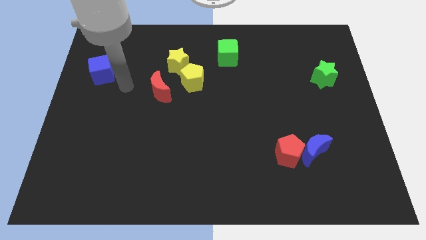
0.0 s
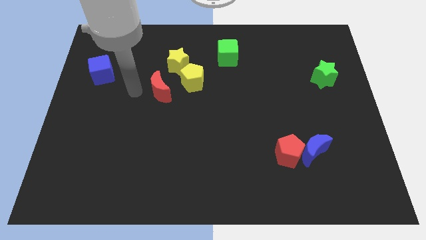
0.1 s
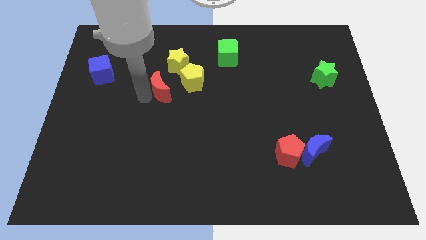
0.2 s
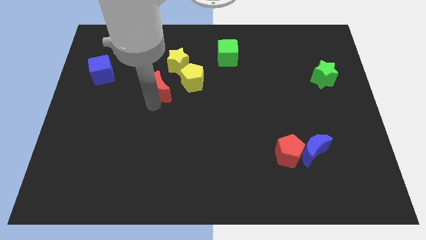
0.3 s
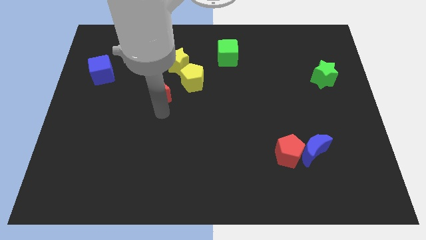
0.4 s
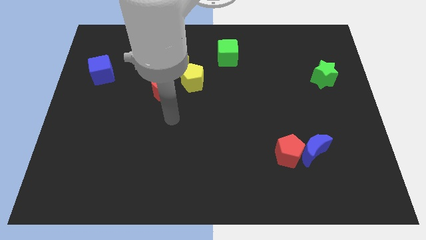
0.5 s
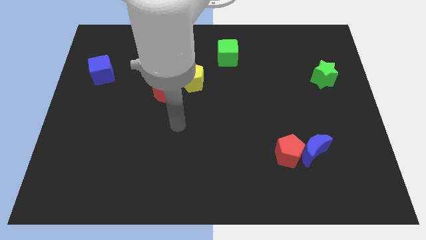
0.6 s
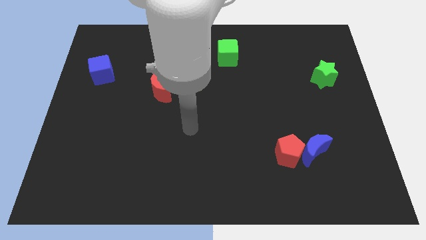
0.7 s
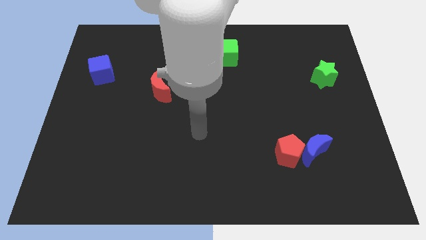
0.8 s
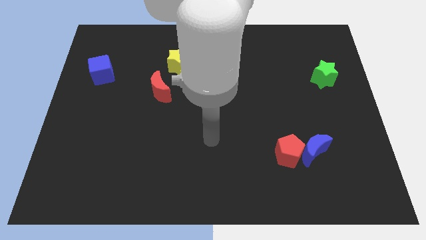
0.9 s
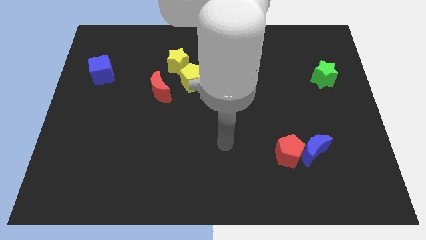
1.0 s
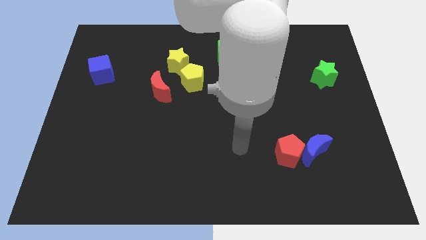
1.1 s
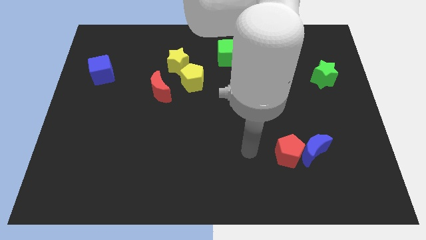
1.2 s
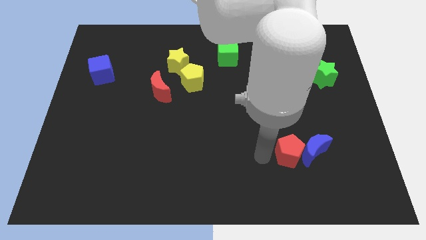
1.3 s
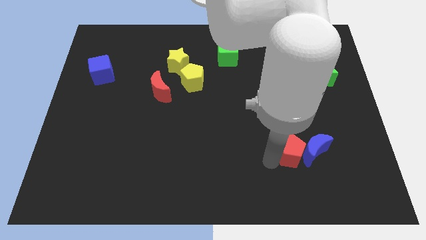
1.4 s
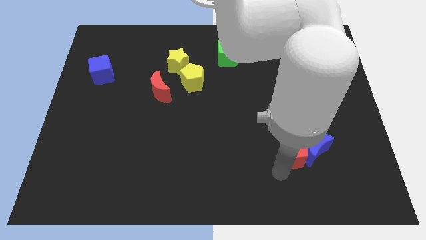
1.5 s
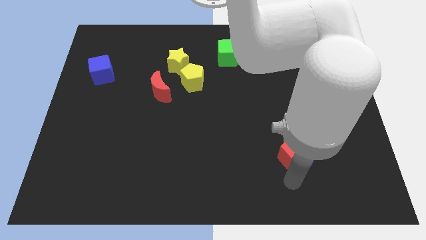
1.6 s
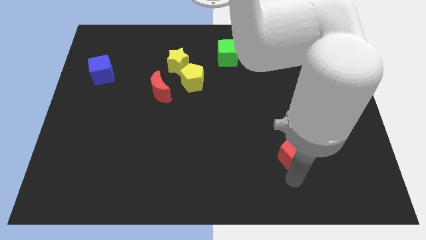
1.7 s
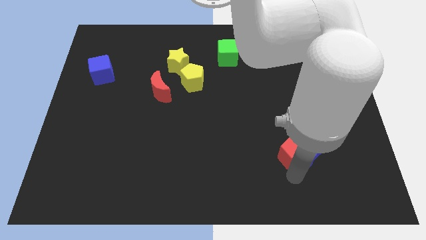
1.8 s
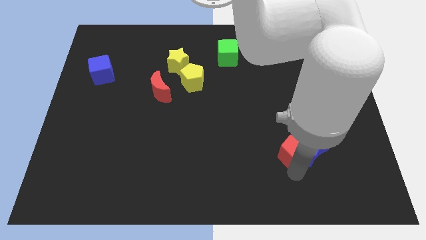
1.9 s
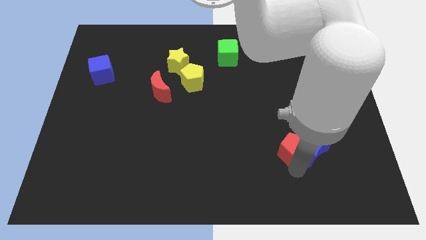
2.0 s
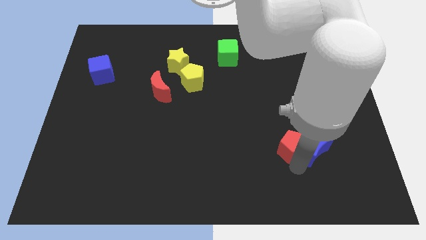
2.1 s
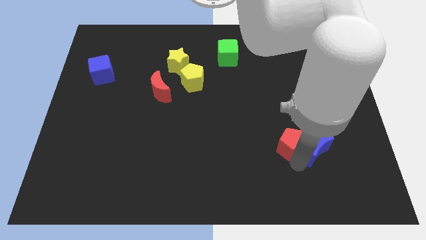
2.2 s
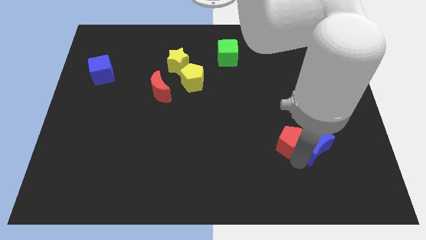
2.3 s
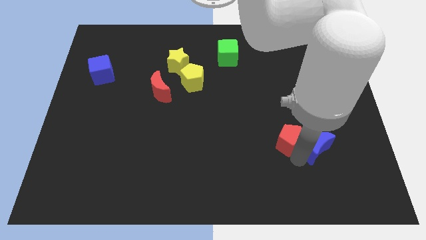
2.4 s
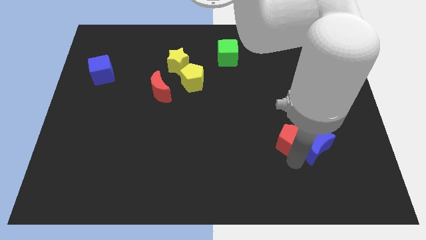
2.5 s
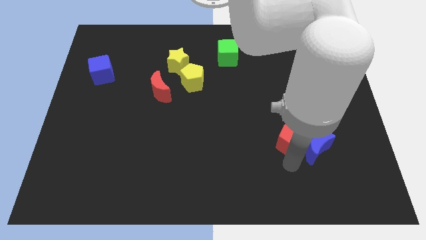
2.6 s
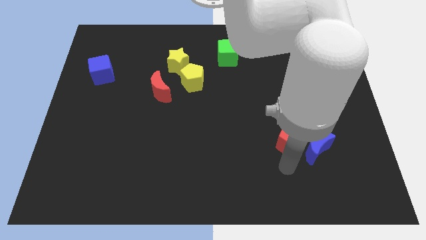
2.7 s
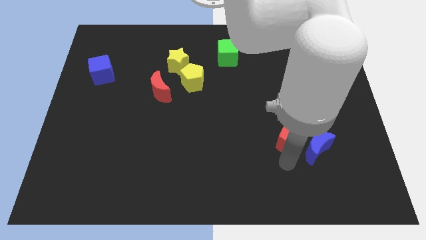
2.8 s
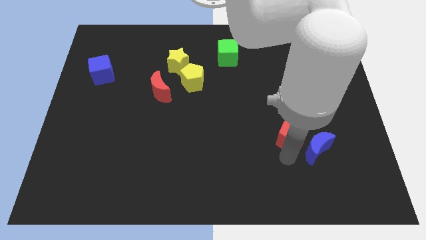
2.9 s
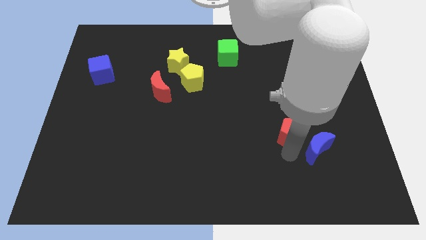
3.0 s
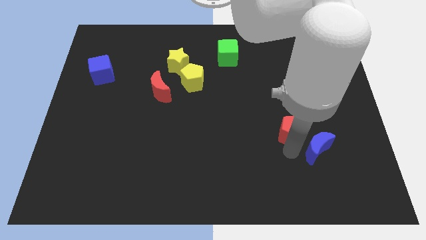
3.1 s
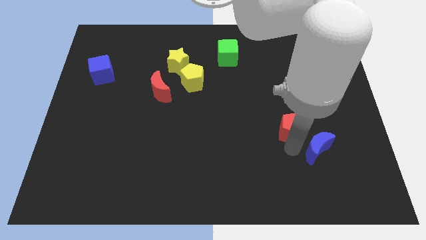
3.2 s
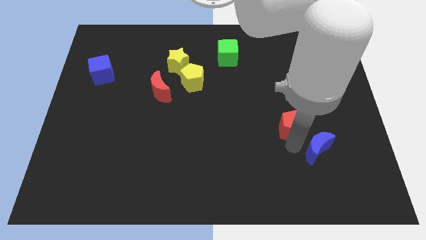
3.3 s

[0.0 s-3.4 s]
push the red pentagon upwards a little bit

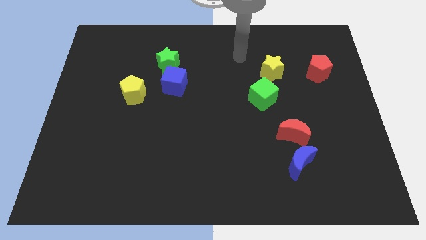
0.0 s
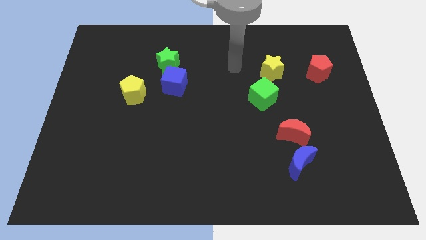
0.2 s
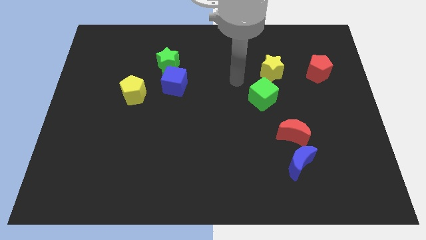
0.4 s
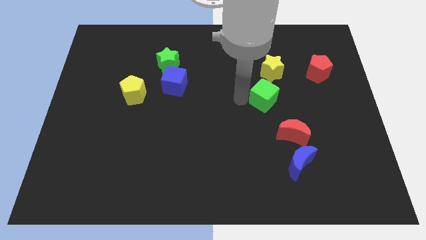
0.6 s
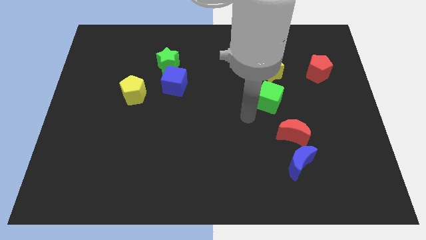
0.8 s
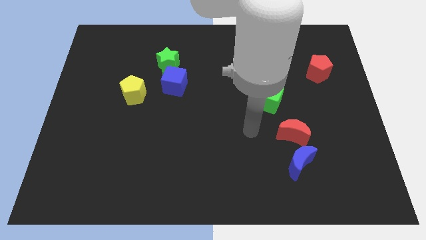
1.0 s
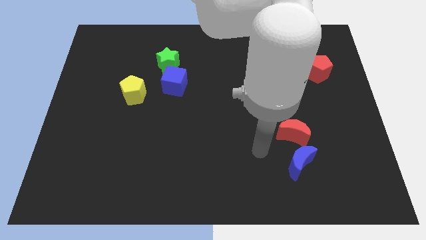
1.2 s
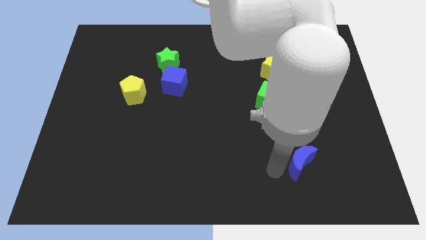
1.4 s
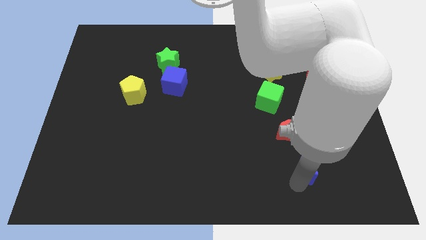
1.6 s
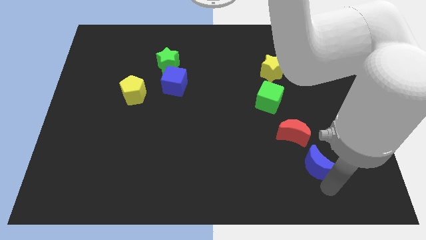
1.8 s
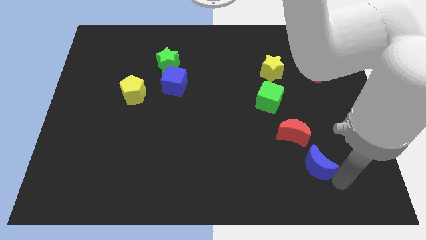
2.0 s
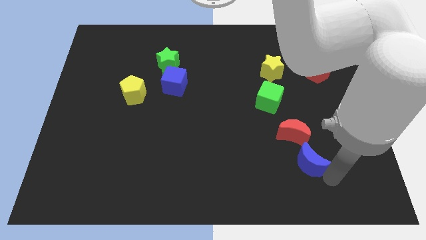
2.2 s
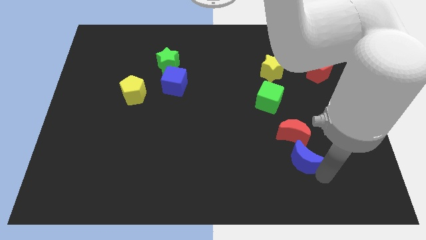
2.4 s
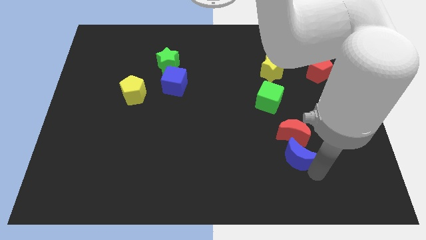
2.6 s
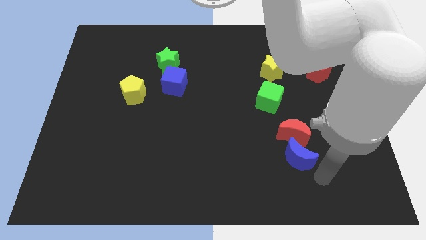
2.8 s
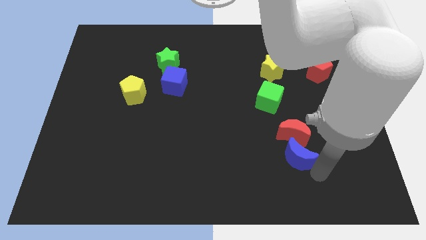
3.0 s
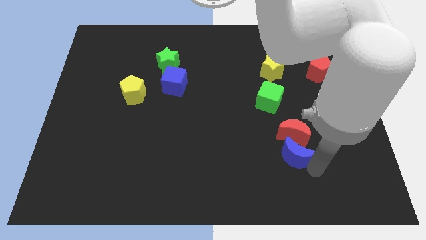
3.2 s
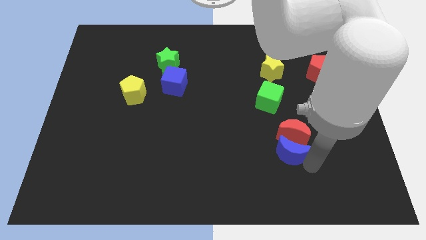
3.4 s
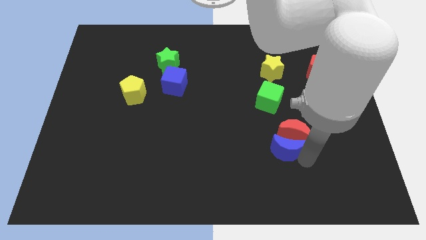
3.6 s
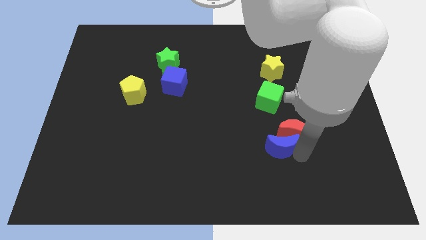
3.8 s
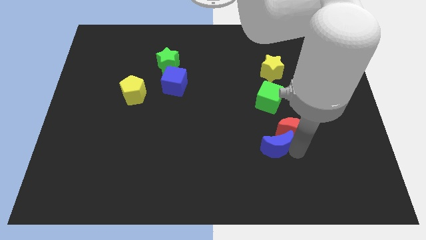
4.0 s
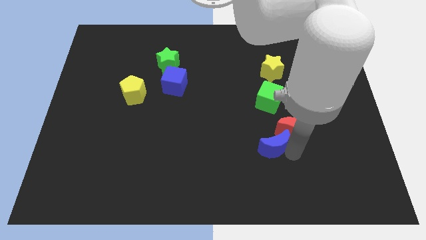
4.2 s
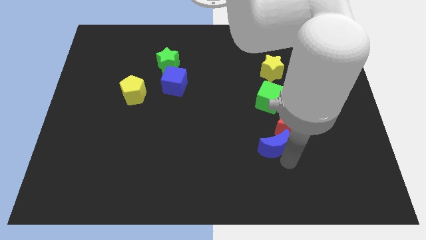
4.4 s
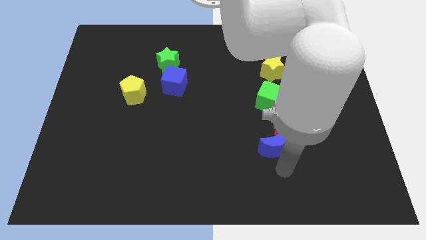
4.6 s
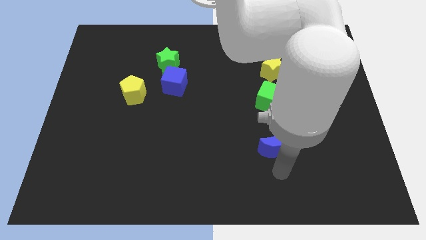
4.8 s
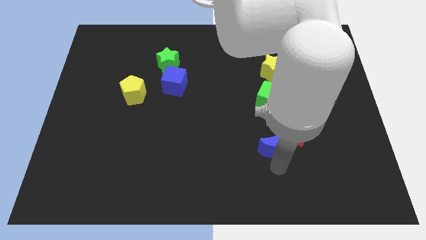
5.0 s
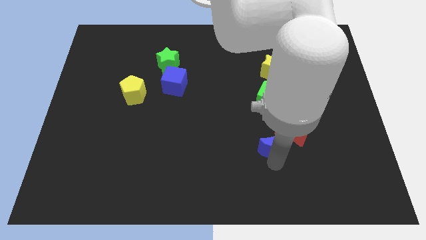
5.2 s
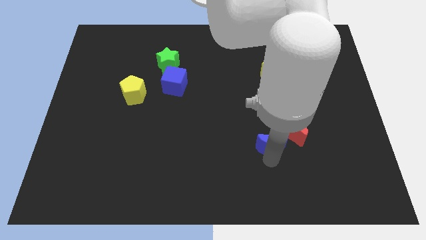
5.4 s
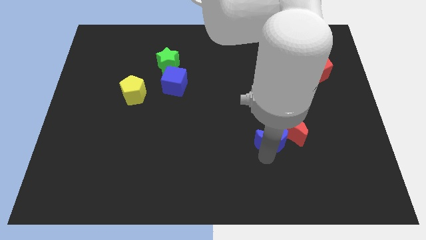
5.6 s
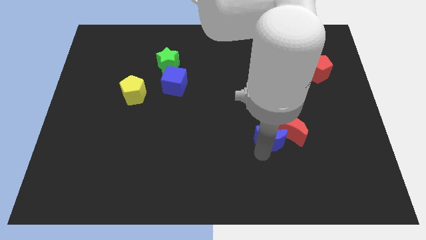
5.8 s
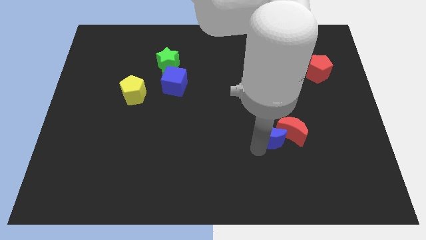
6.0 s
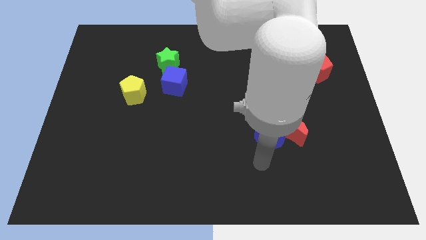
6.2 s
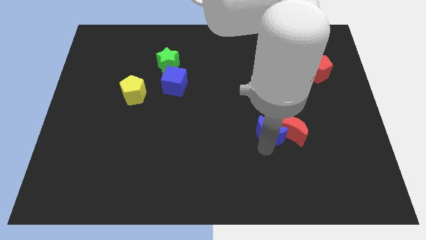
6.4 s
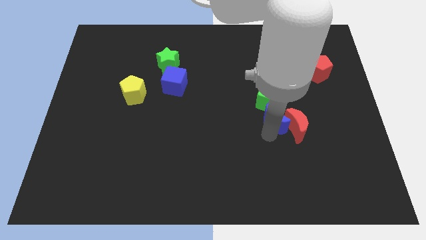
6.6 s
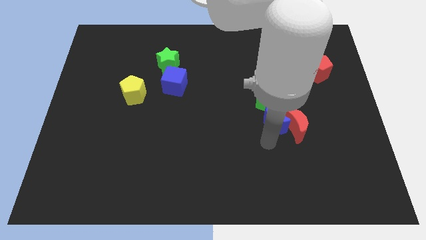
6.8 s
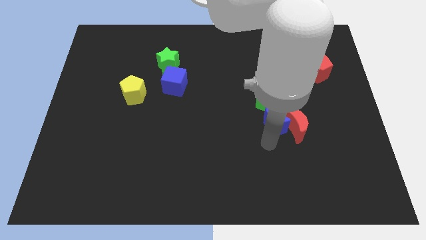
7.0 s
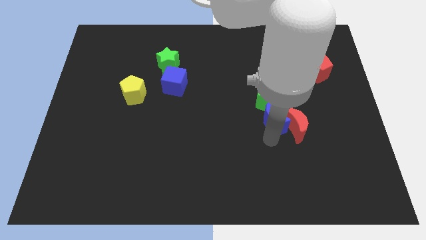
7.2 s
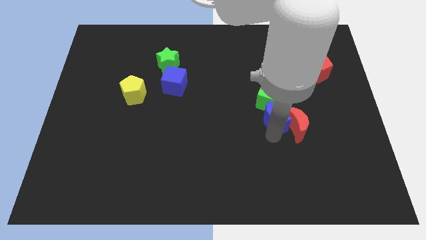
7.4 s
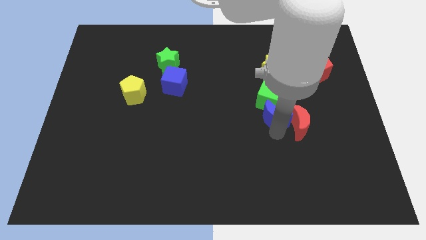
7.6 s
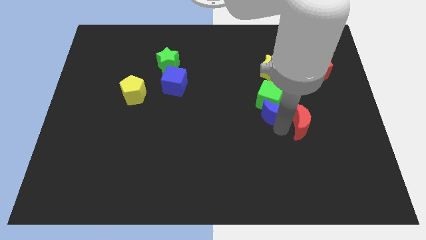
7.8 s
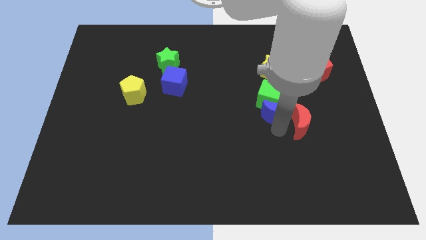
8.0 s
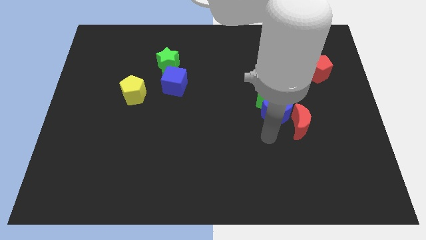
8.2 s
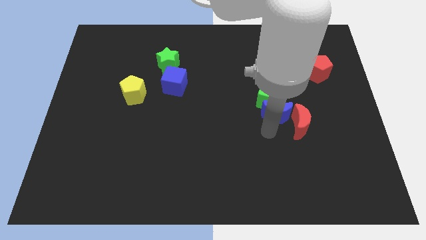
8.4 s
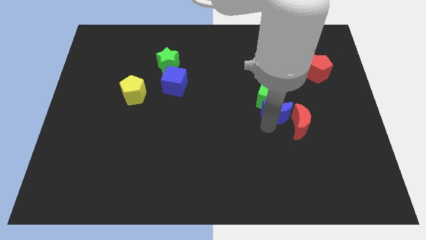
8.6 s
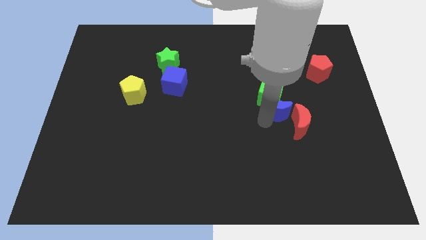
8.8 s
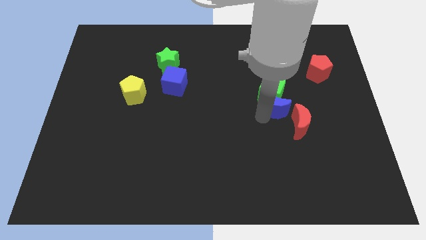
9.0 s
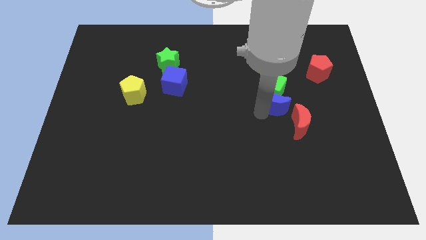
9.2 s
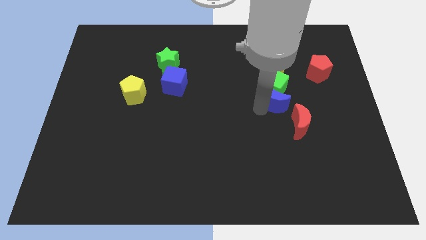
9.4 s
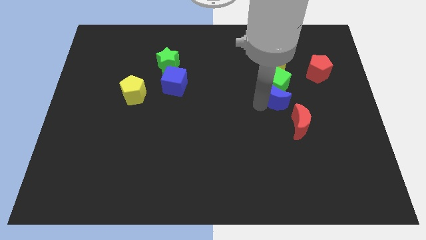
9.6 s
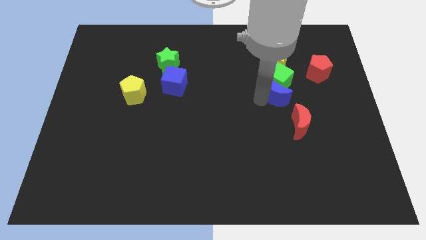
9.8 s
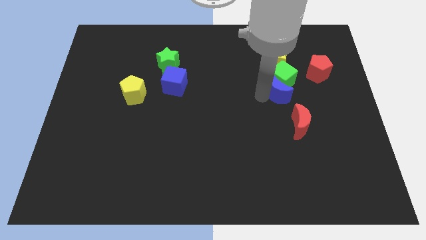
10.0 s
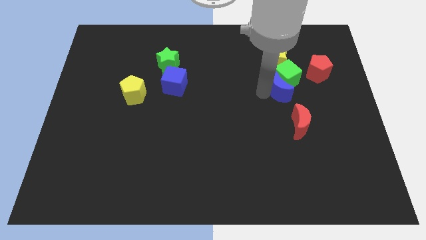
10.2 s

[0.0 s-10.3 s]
move the blue moon up
